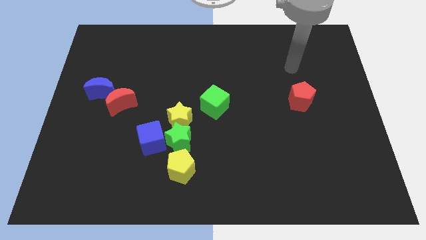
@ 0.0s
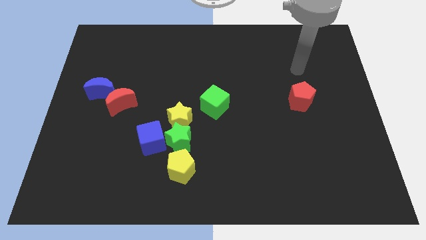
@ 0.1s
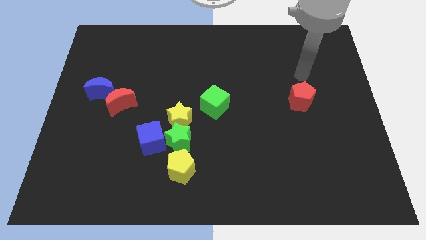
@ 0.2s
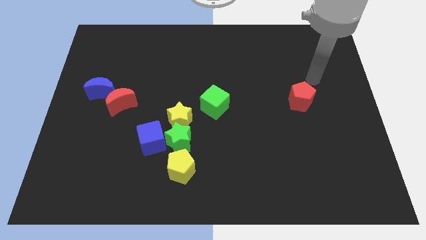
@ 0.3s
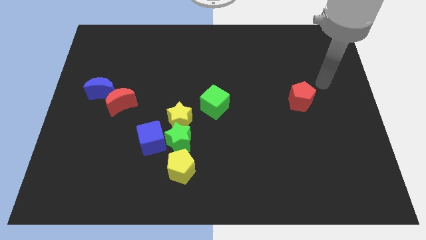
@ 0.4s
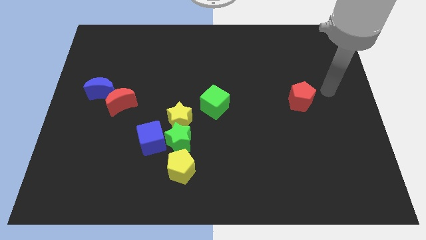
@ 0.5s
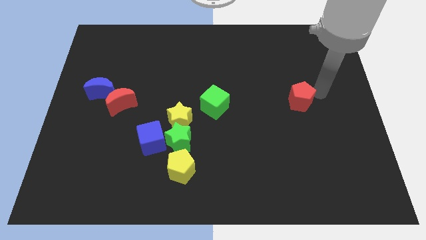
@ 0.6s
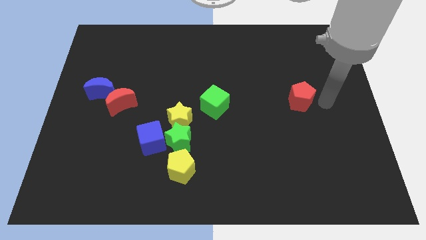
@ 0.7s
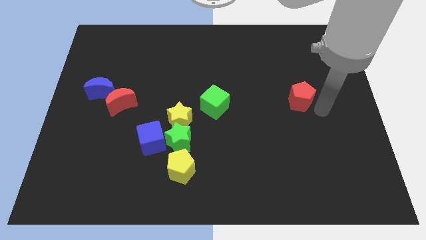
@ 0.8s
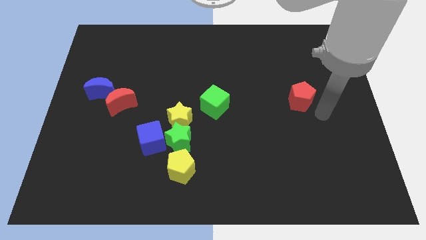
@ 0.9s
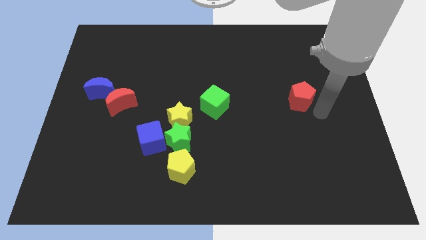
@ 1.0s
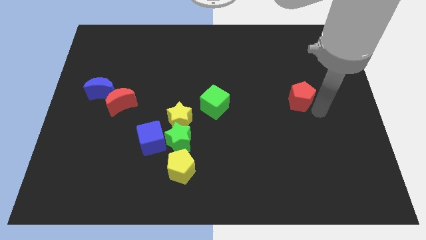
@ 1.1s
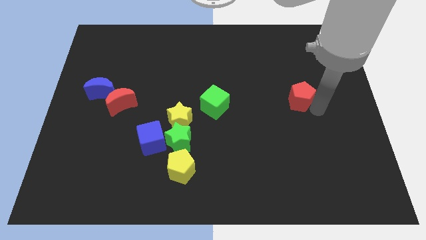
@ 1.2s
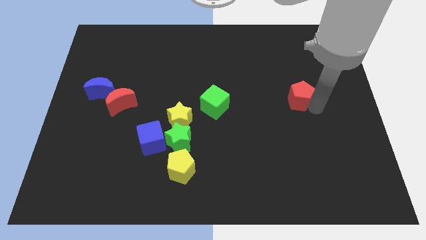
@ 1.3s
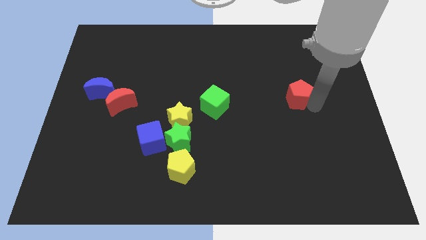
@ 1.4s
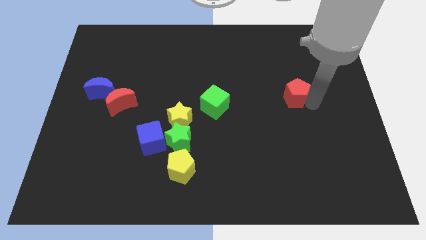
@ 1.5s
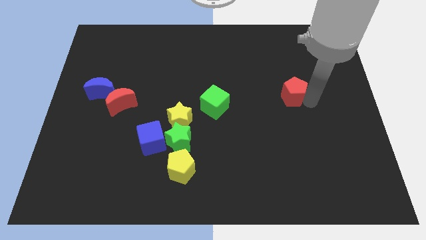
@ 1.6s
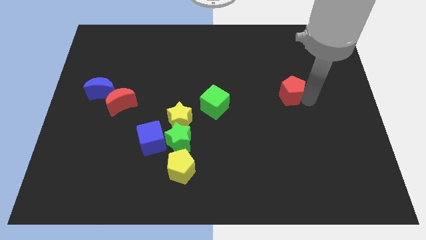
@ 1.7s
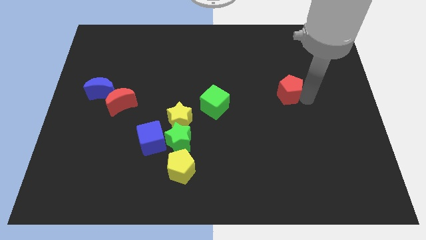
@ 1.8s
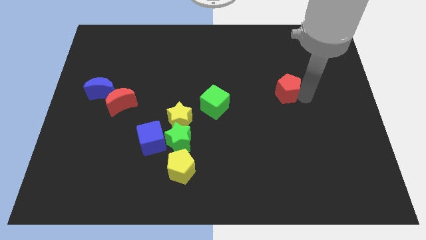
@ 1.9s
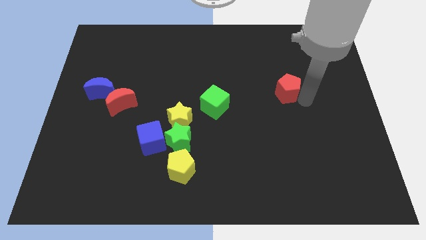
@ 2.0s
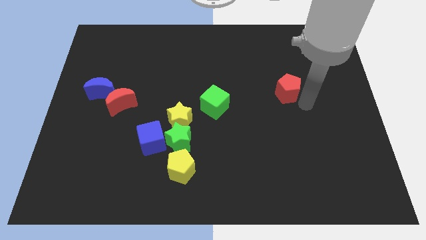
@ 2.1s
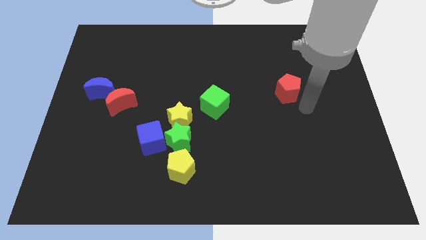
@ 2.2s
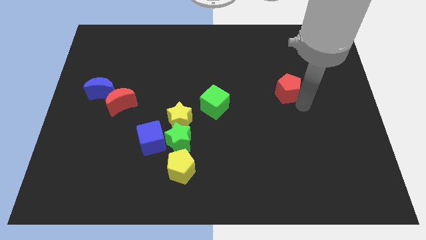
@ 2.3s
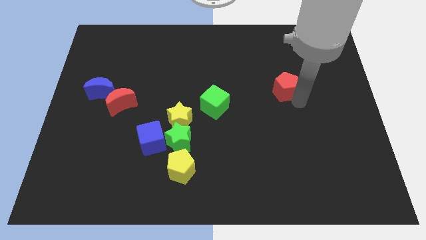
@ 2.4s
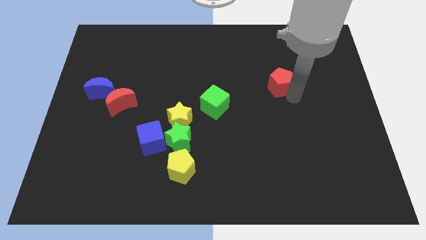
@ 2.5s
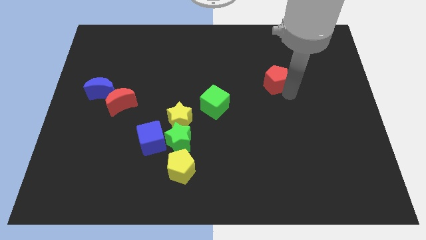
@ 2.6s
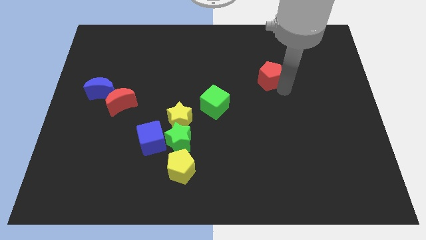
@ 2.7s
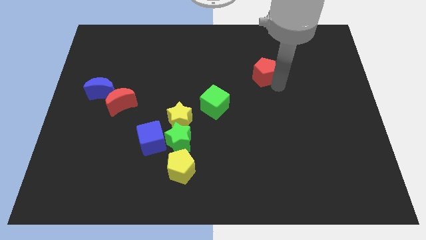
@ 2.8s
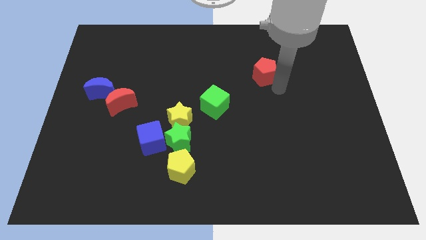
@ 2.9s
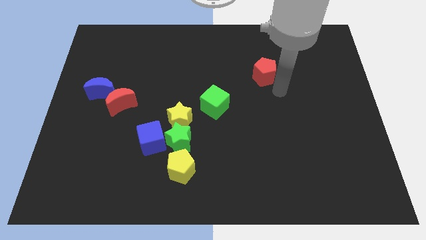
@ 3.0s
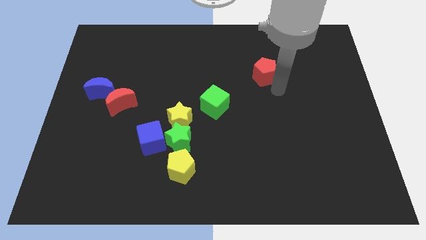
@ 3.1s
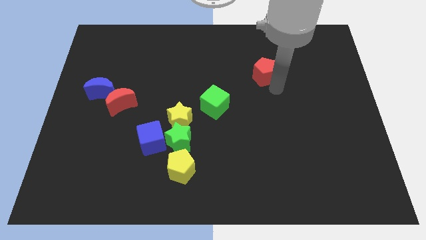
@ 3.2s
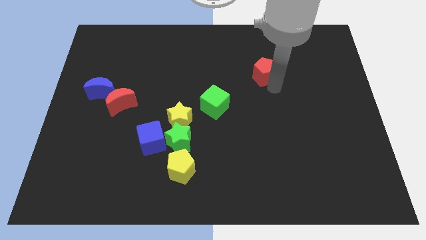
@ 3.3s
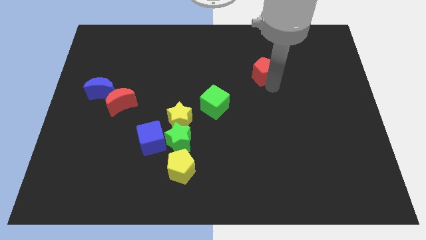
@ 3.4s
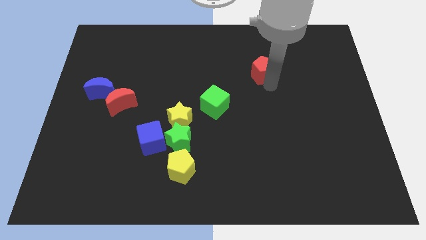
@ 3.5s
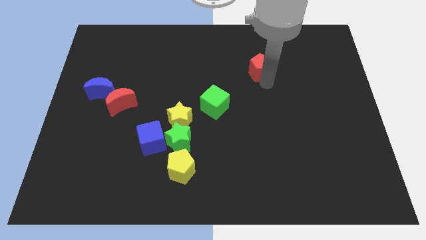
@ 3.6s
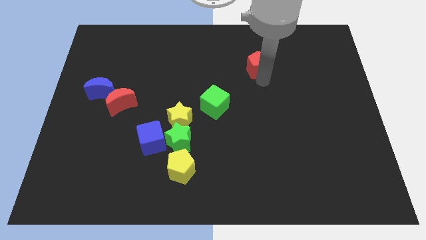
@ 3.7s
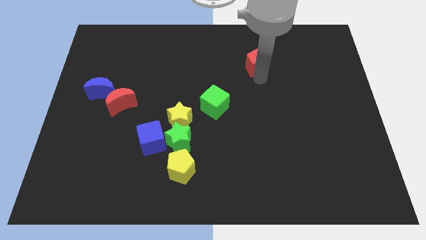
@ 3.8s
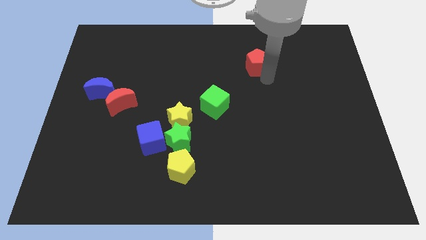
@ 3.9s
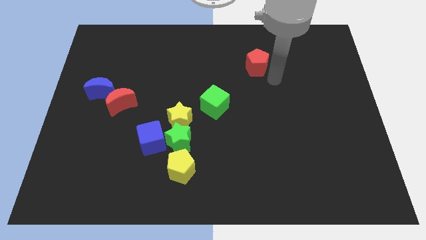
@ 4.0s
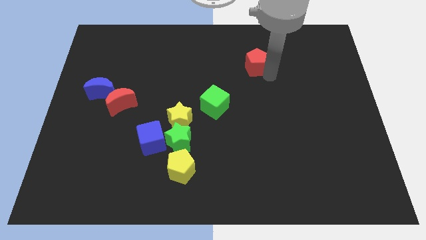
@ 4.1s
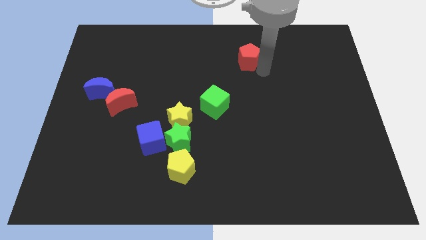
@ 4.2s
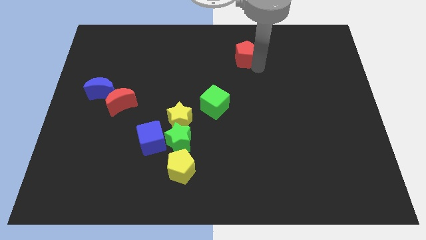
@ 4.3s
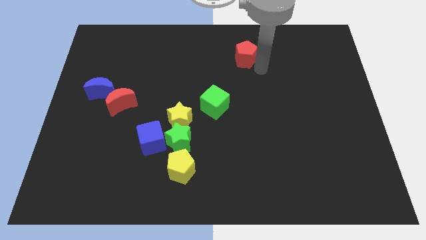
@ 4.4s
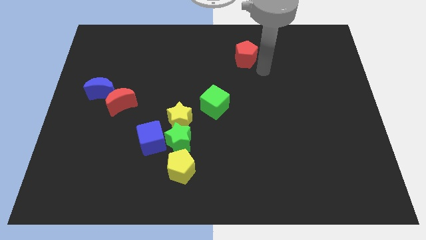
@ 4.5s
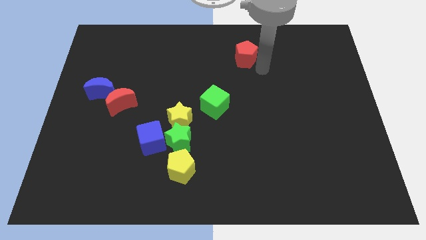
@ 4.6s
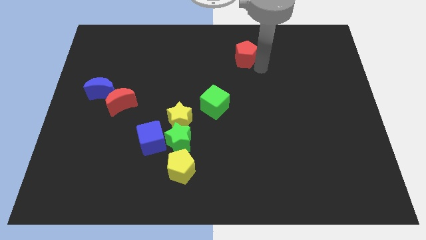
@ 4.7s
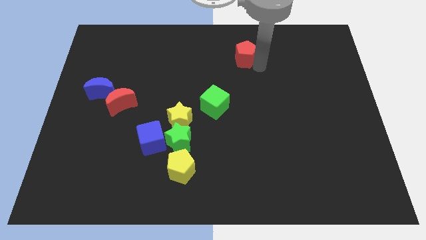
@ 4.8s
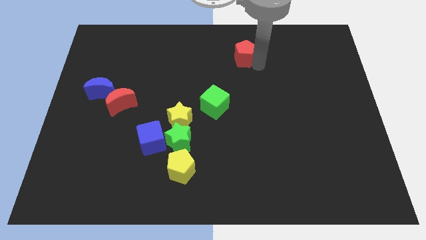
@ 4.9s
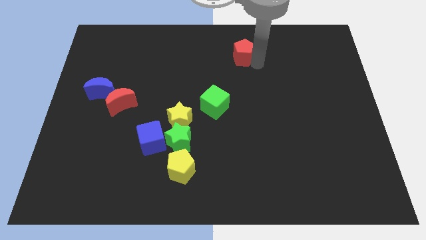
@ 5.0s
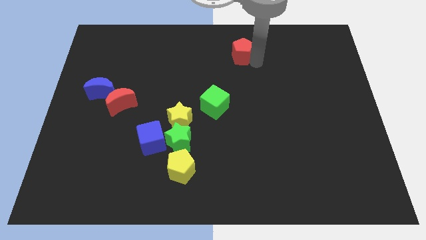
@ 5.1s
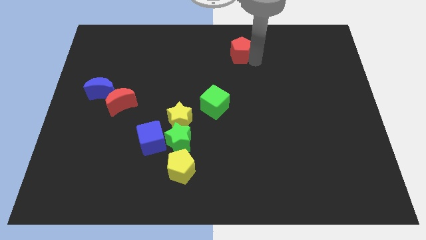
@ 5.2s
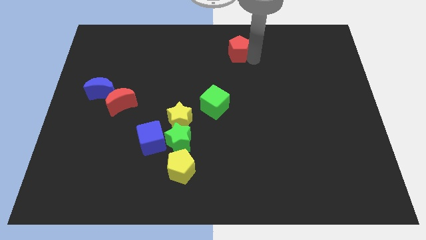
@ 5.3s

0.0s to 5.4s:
slide the red pentagon to the top
